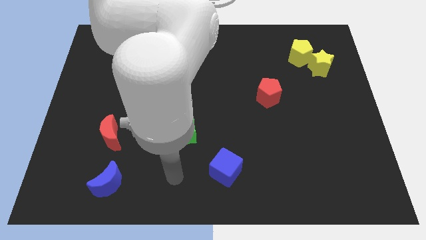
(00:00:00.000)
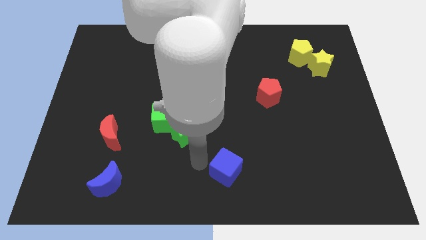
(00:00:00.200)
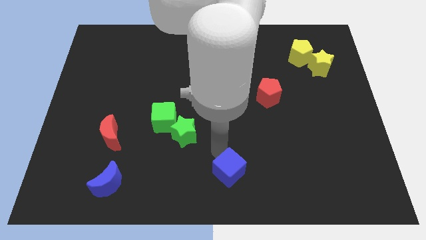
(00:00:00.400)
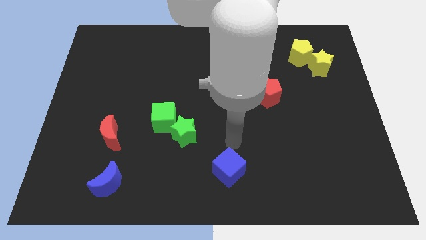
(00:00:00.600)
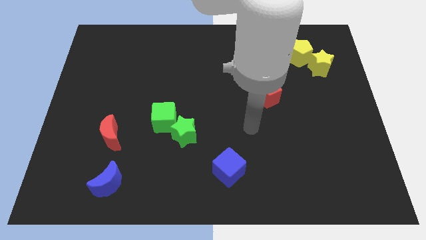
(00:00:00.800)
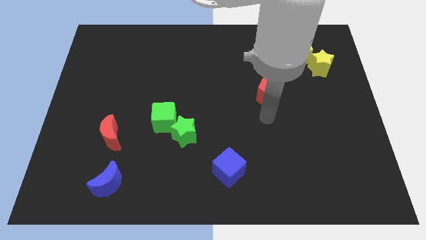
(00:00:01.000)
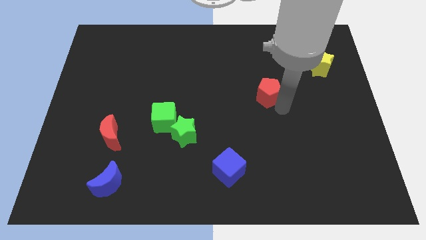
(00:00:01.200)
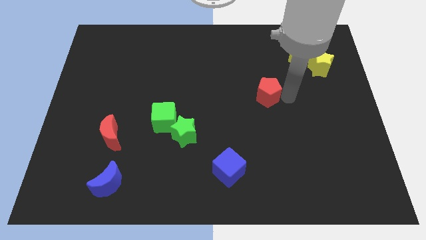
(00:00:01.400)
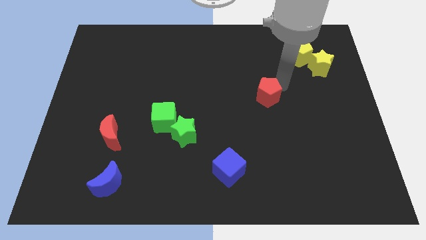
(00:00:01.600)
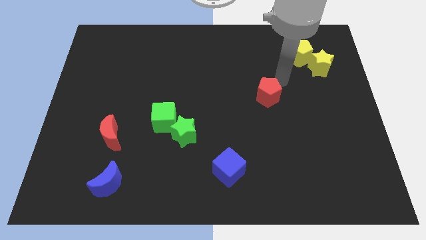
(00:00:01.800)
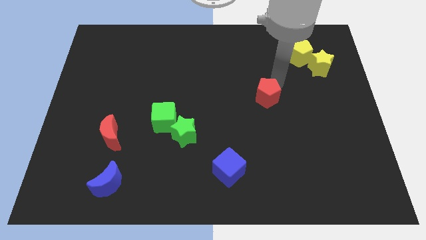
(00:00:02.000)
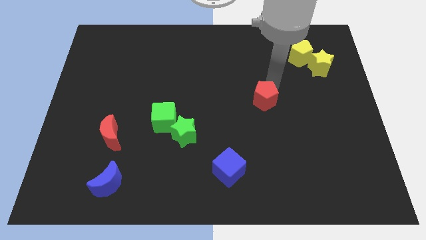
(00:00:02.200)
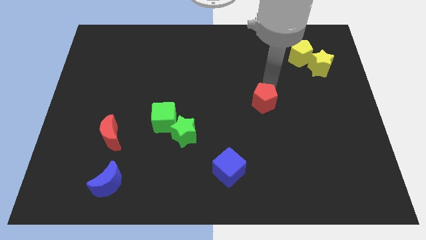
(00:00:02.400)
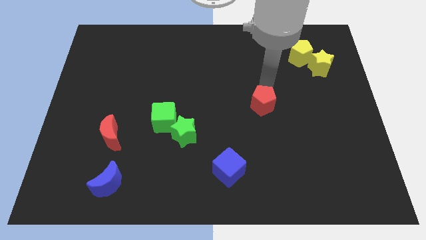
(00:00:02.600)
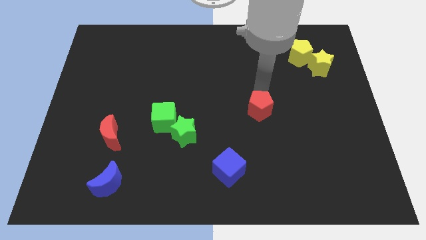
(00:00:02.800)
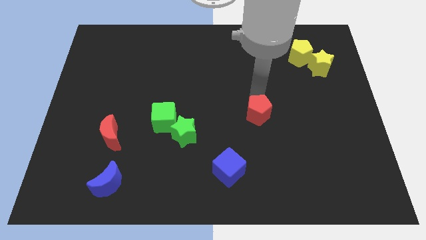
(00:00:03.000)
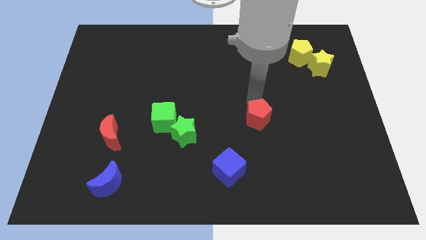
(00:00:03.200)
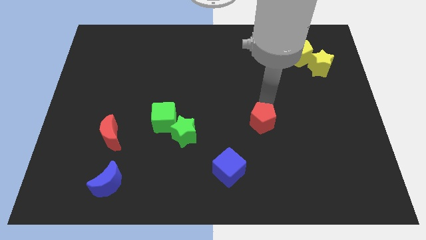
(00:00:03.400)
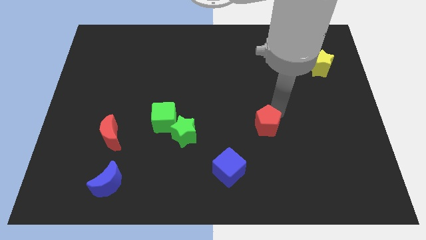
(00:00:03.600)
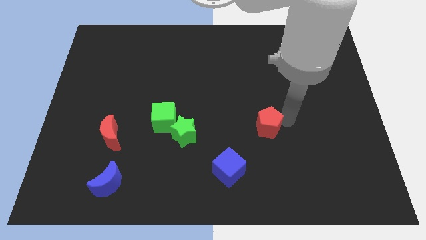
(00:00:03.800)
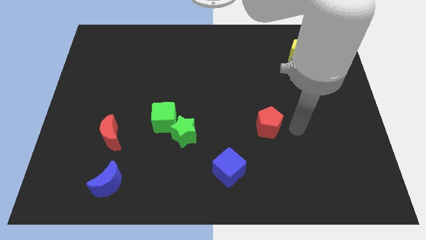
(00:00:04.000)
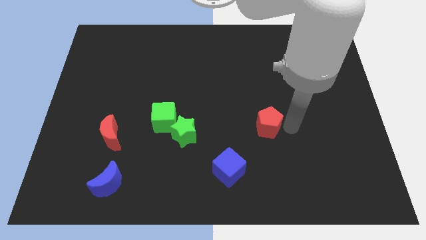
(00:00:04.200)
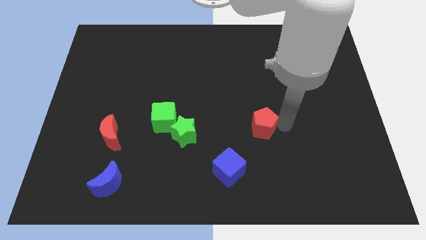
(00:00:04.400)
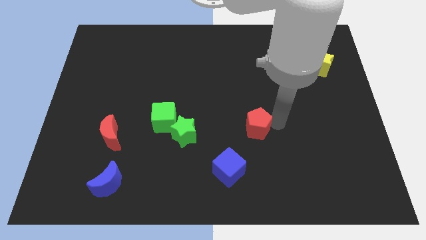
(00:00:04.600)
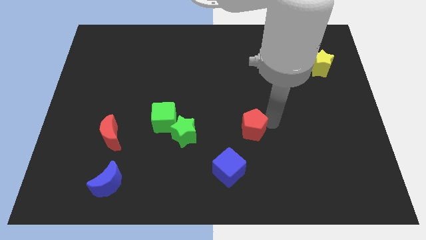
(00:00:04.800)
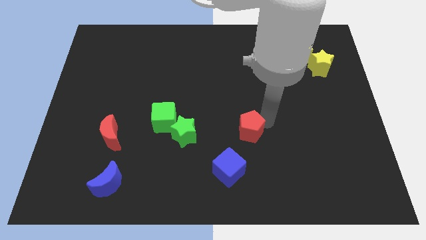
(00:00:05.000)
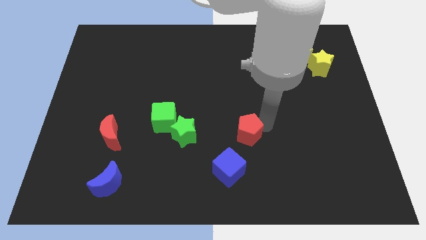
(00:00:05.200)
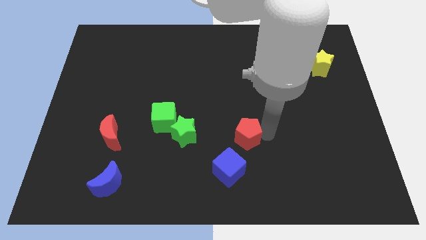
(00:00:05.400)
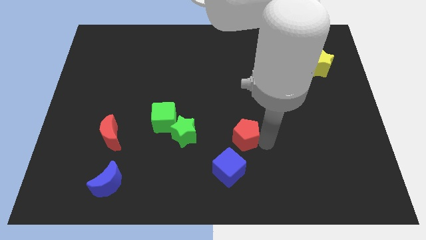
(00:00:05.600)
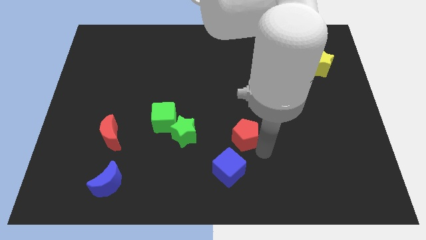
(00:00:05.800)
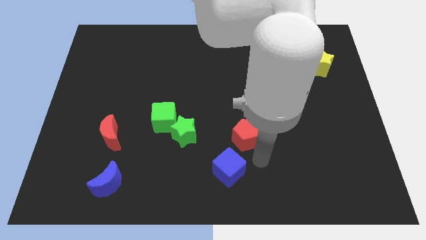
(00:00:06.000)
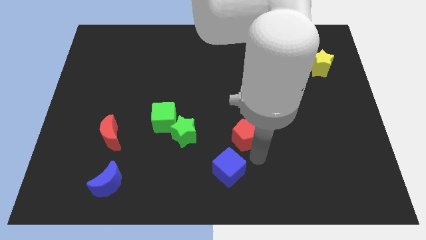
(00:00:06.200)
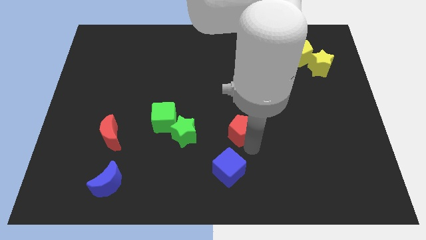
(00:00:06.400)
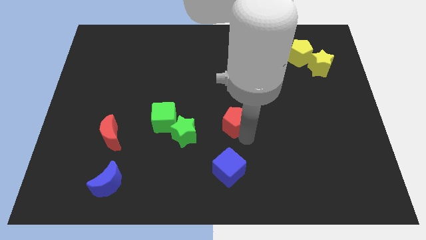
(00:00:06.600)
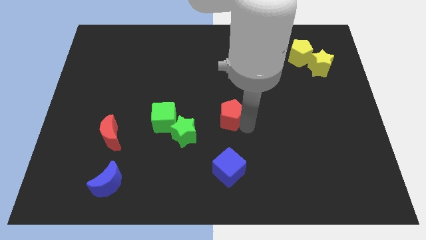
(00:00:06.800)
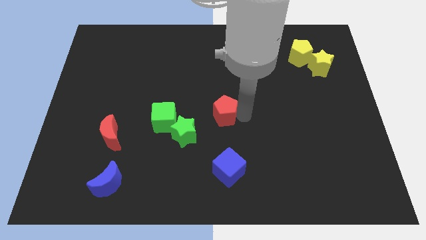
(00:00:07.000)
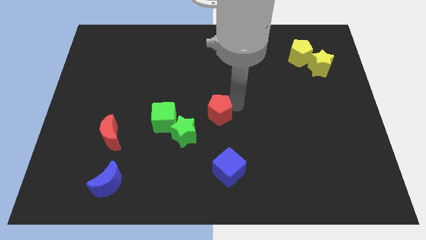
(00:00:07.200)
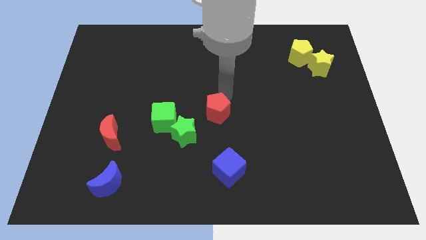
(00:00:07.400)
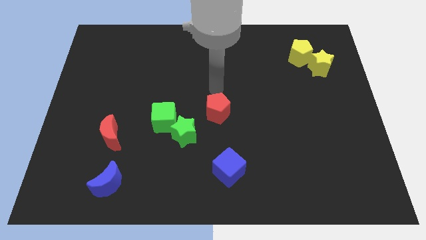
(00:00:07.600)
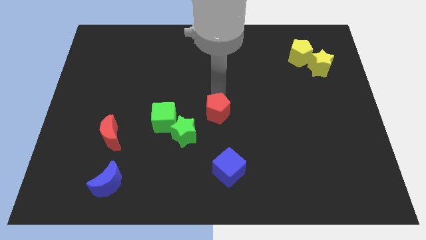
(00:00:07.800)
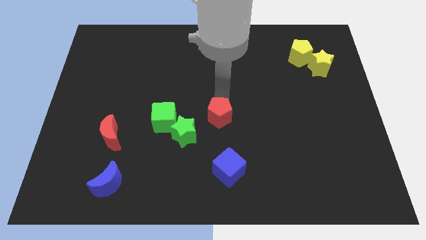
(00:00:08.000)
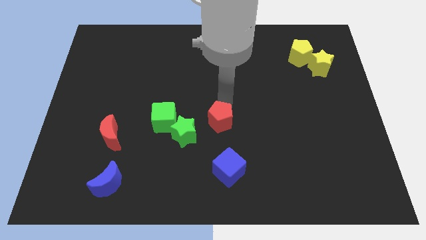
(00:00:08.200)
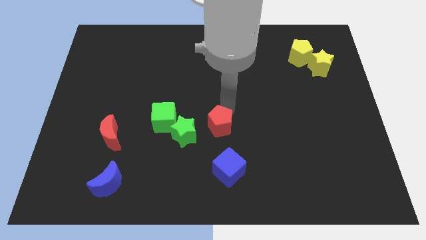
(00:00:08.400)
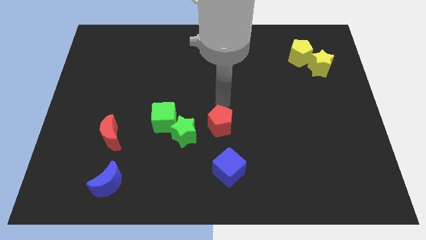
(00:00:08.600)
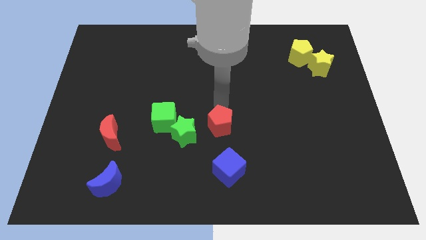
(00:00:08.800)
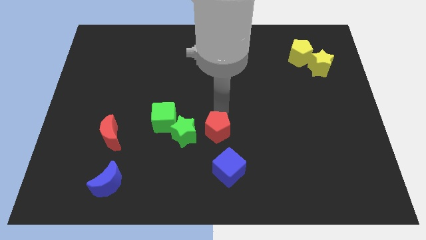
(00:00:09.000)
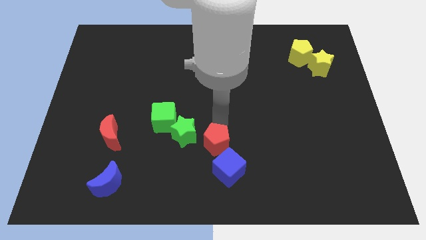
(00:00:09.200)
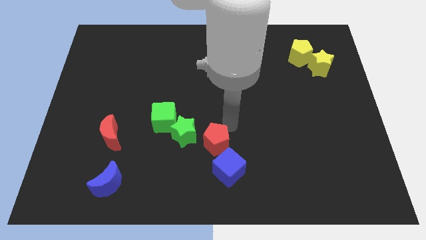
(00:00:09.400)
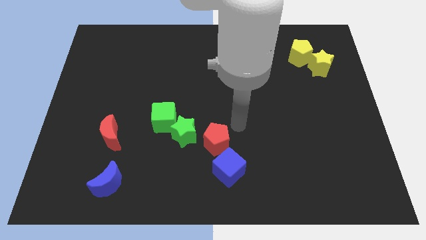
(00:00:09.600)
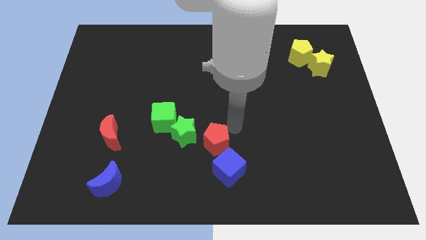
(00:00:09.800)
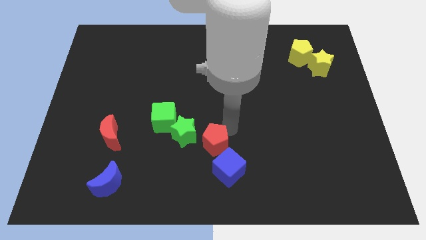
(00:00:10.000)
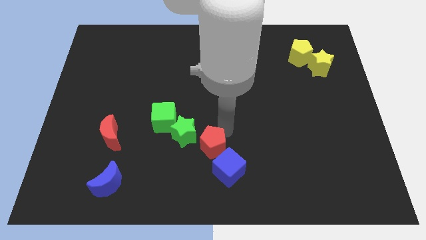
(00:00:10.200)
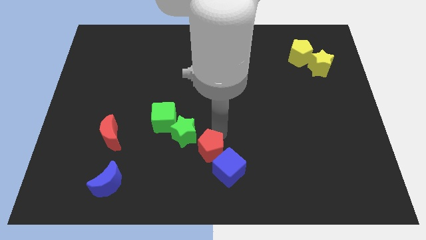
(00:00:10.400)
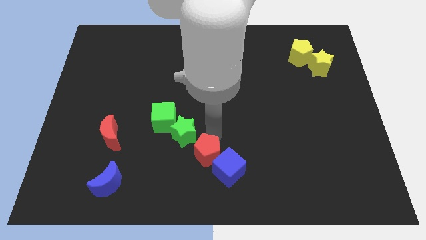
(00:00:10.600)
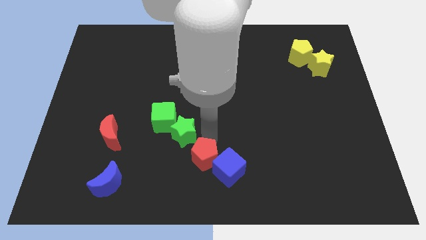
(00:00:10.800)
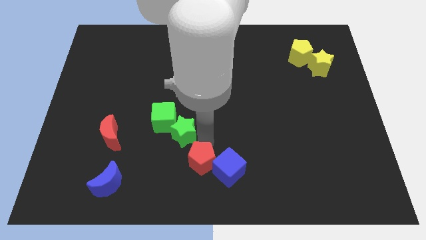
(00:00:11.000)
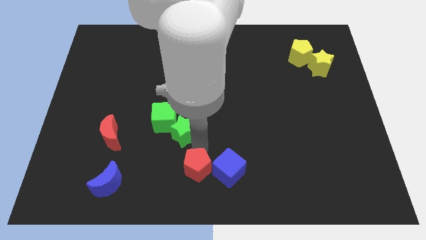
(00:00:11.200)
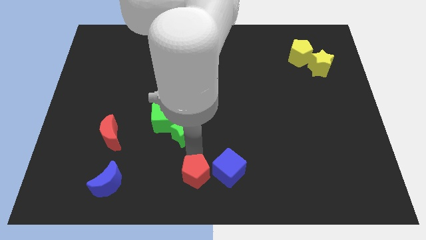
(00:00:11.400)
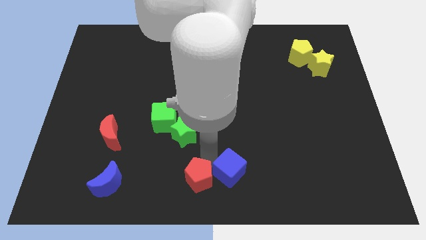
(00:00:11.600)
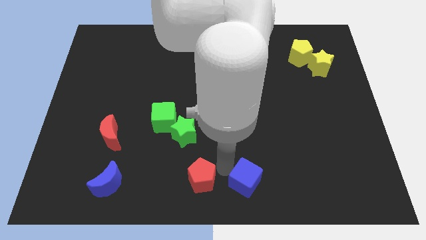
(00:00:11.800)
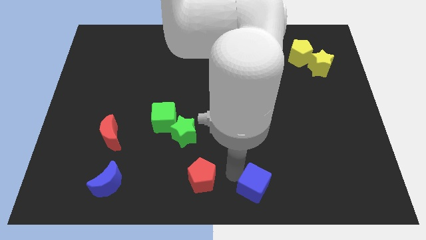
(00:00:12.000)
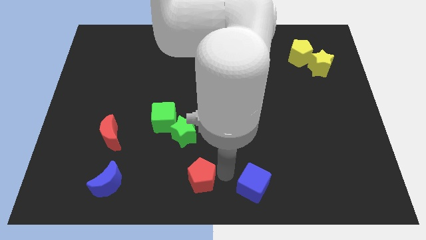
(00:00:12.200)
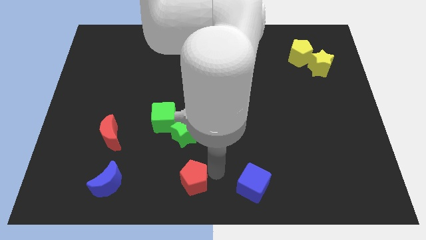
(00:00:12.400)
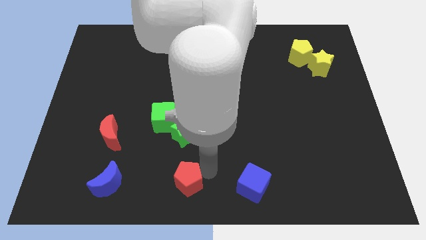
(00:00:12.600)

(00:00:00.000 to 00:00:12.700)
push the red pentagon to the right of the blue moon

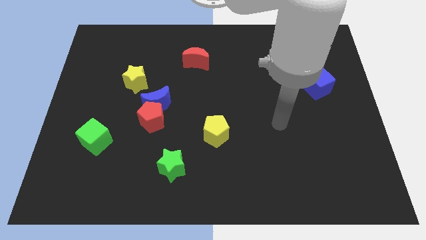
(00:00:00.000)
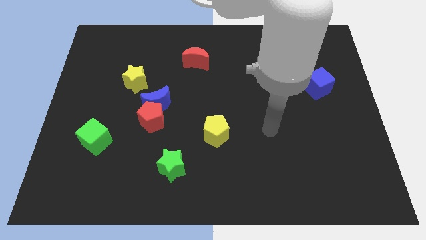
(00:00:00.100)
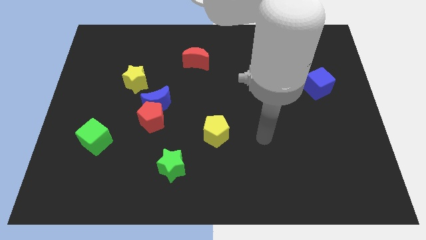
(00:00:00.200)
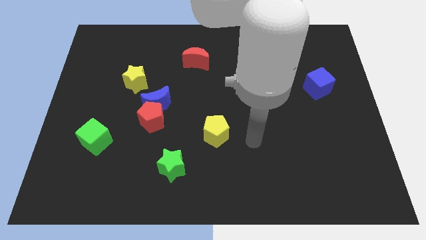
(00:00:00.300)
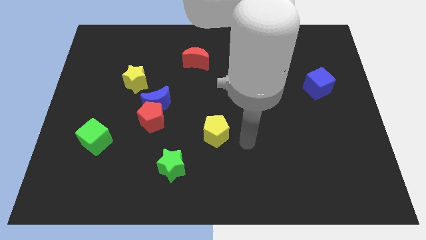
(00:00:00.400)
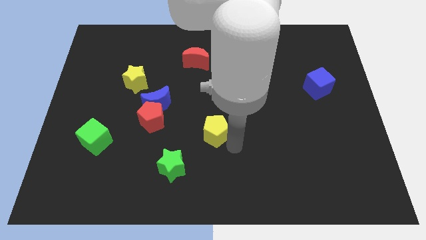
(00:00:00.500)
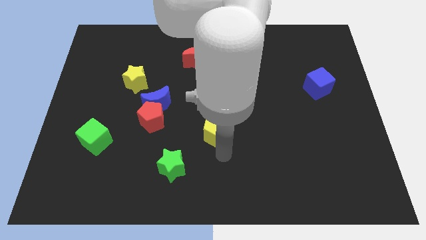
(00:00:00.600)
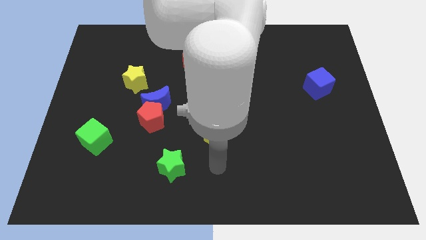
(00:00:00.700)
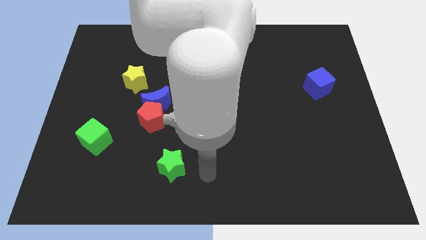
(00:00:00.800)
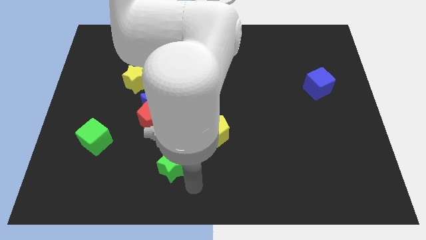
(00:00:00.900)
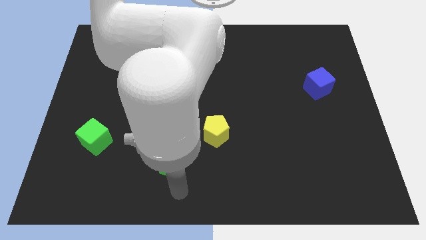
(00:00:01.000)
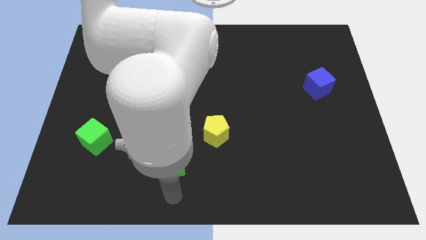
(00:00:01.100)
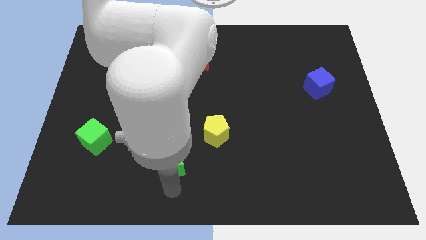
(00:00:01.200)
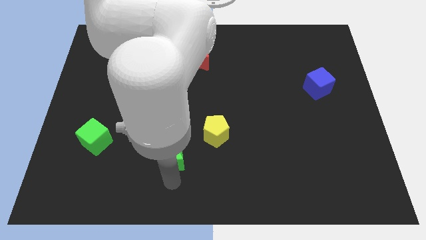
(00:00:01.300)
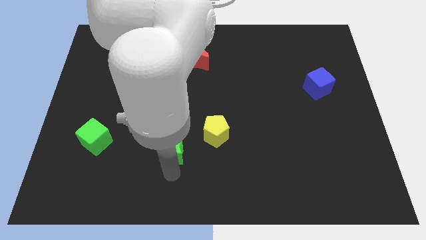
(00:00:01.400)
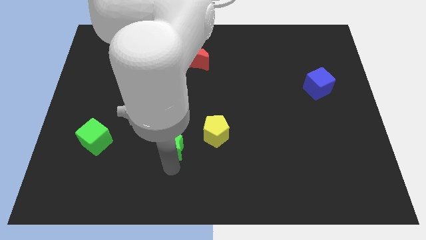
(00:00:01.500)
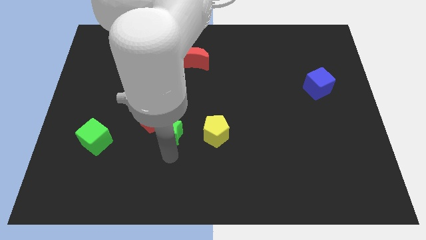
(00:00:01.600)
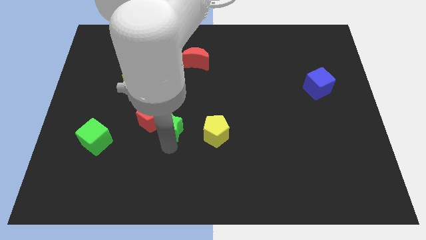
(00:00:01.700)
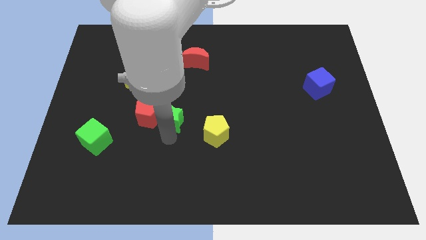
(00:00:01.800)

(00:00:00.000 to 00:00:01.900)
slide the green star to the top right of the red pentagon
